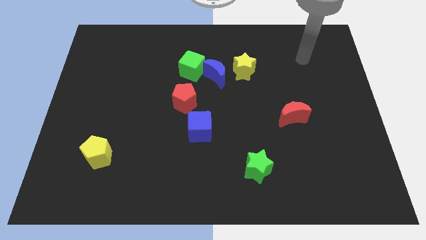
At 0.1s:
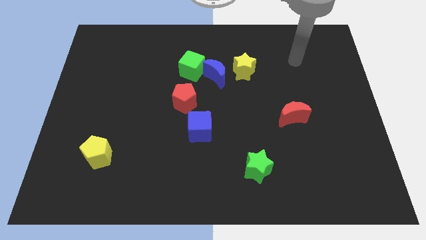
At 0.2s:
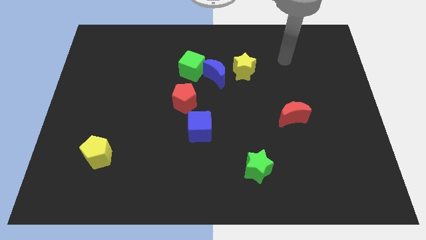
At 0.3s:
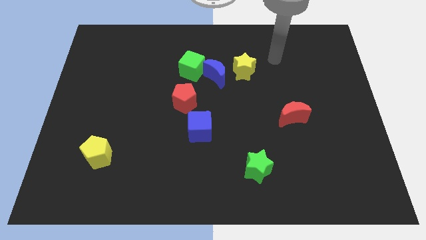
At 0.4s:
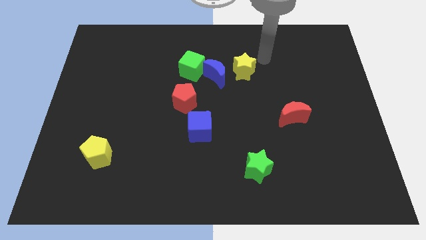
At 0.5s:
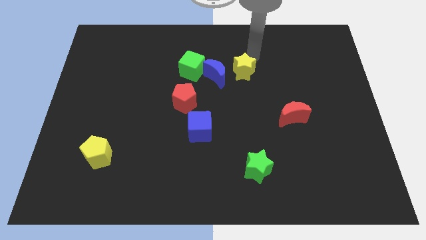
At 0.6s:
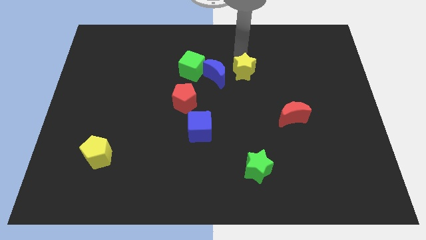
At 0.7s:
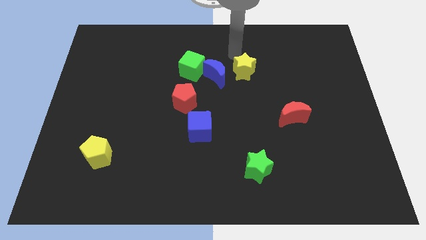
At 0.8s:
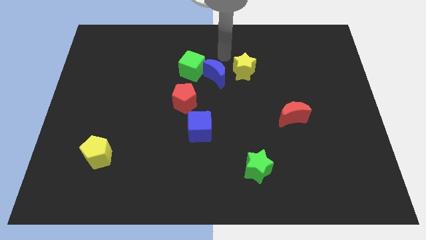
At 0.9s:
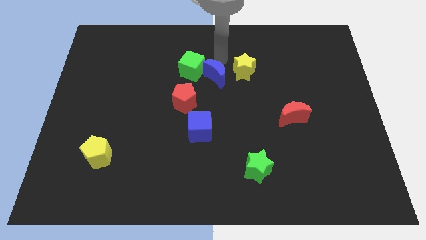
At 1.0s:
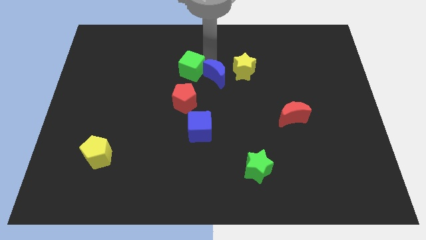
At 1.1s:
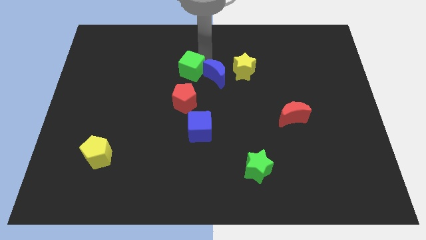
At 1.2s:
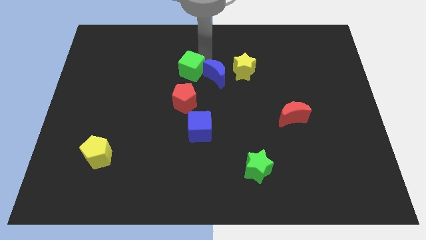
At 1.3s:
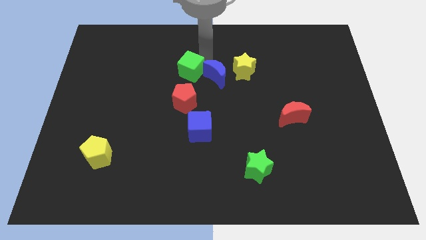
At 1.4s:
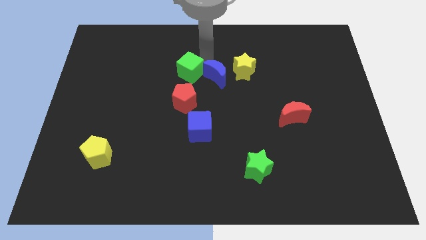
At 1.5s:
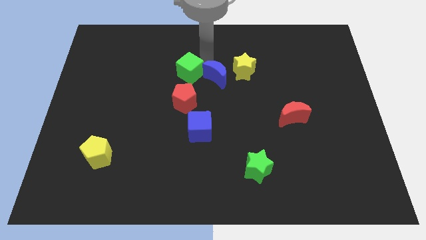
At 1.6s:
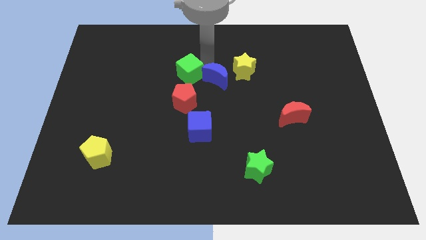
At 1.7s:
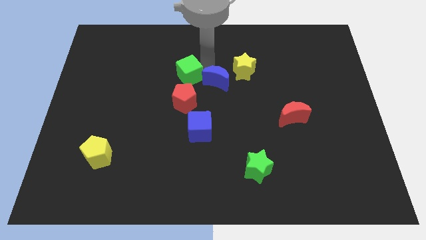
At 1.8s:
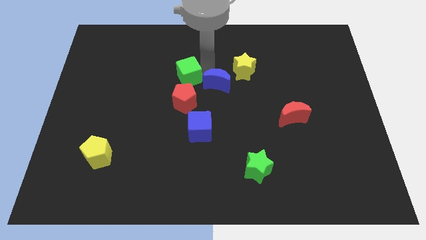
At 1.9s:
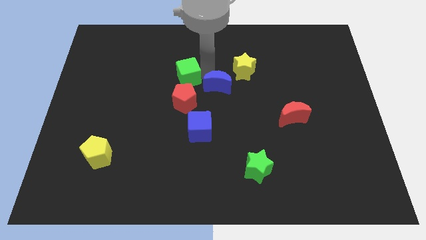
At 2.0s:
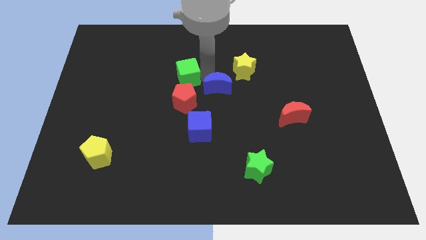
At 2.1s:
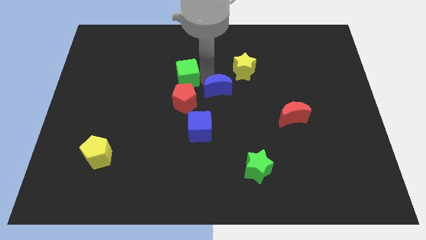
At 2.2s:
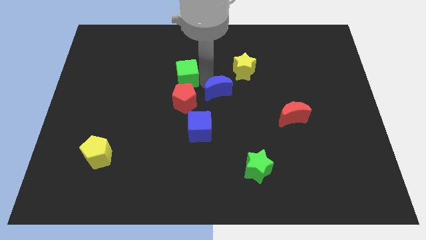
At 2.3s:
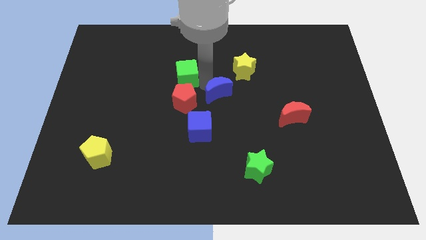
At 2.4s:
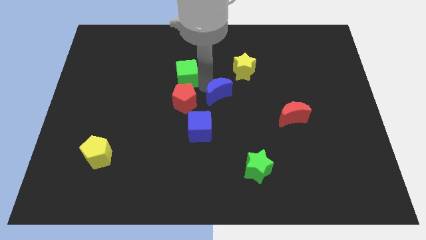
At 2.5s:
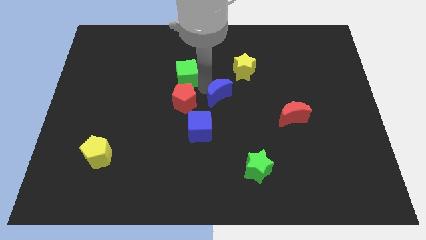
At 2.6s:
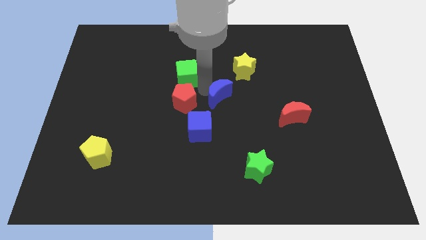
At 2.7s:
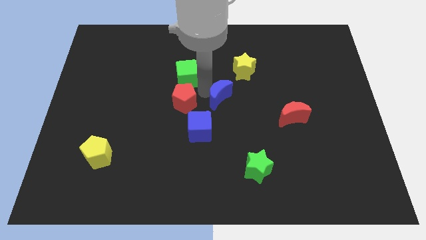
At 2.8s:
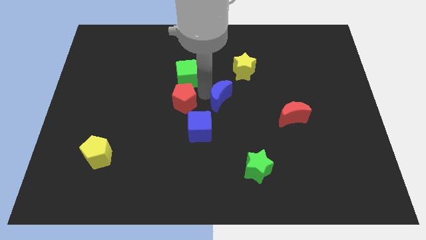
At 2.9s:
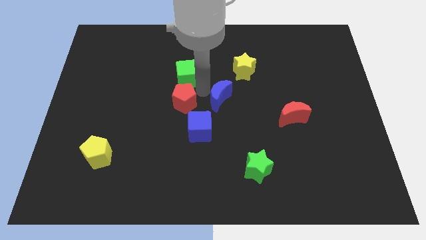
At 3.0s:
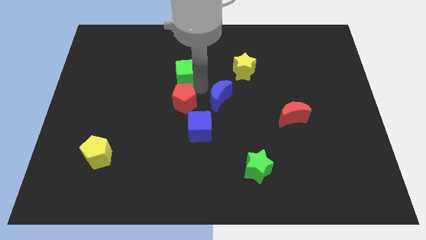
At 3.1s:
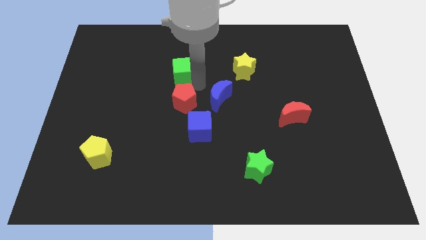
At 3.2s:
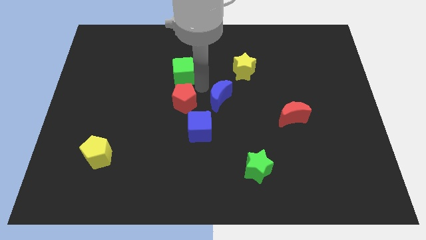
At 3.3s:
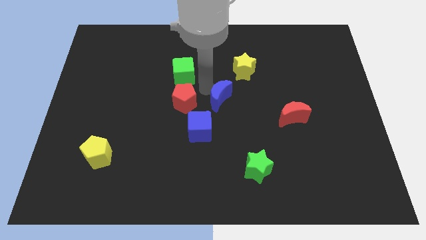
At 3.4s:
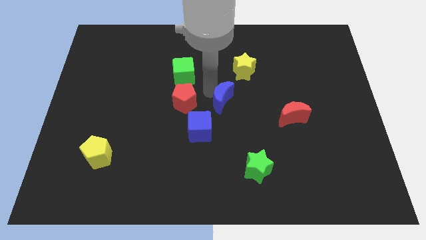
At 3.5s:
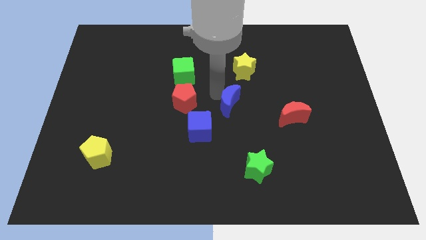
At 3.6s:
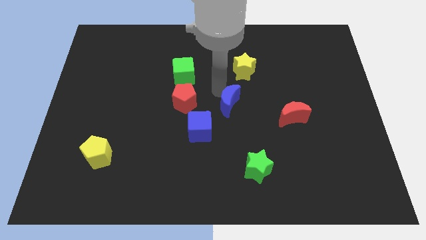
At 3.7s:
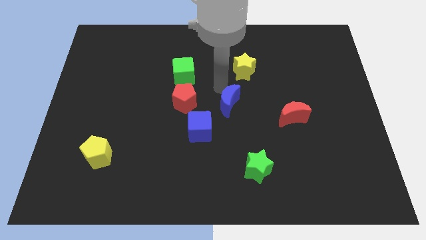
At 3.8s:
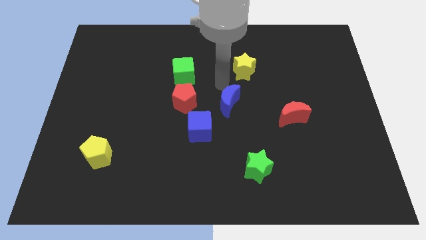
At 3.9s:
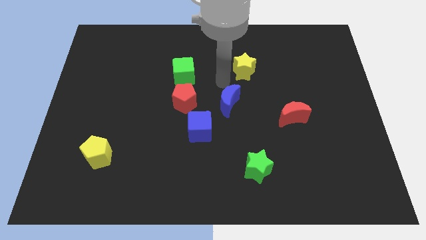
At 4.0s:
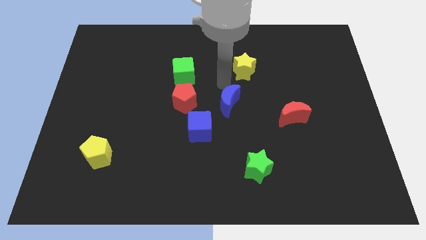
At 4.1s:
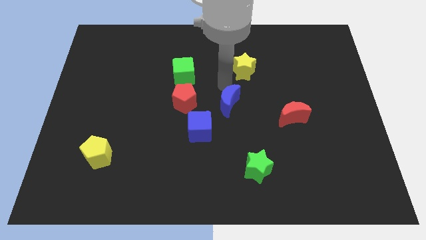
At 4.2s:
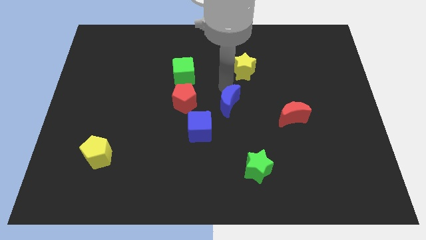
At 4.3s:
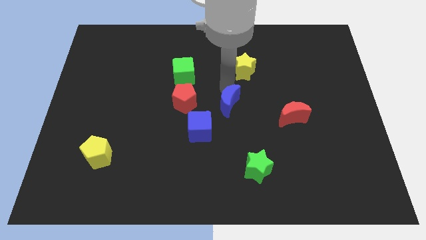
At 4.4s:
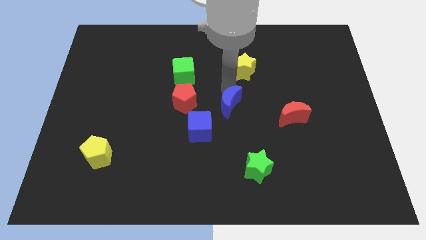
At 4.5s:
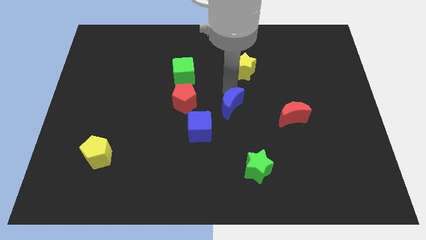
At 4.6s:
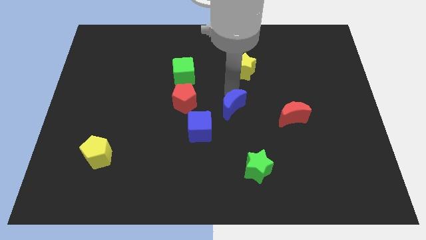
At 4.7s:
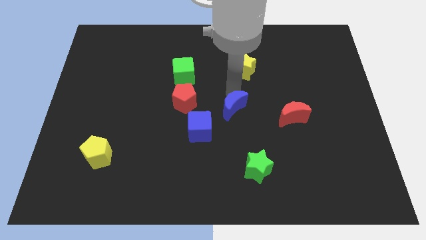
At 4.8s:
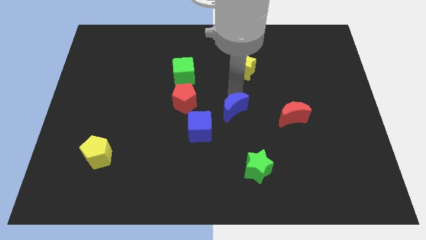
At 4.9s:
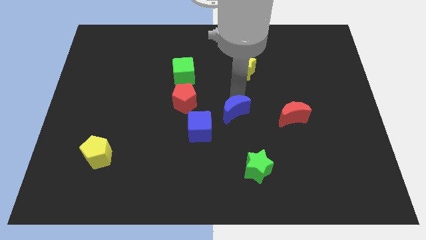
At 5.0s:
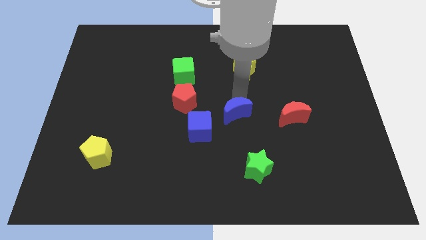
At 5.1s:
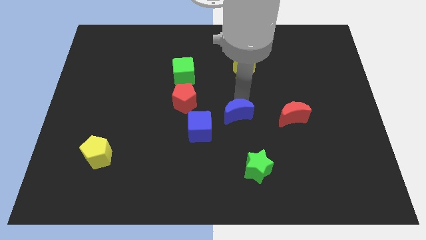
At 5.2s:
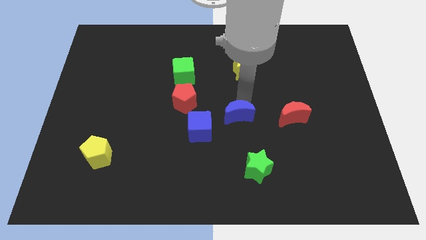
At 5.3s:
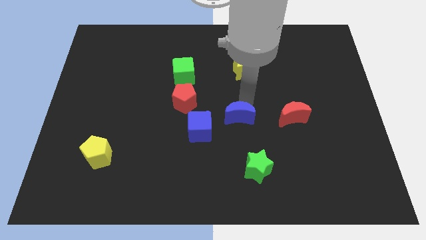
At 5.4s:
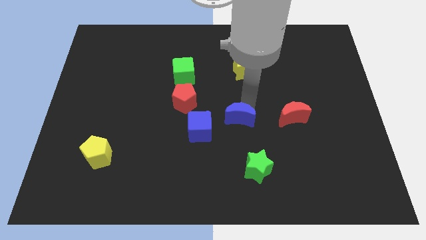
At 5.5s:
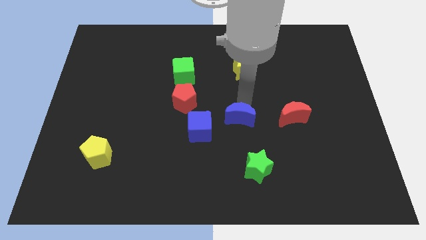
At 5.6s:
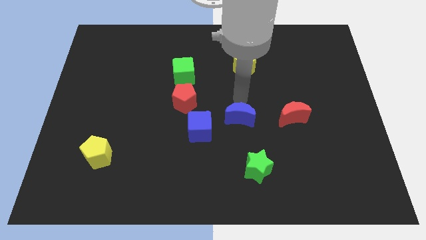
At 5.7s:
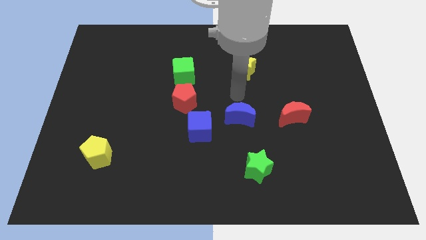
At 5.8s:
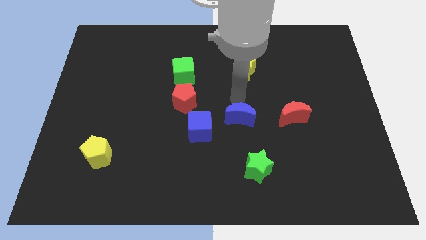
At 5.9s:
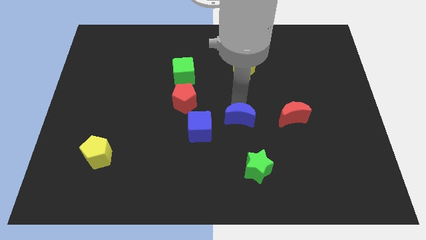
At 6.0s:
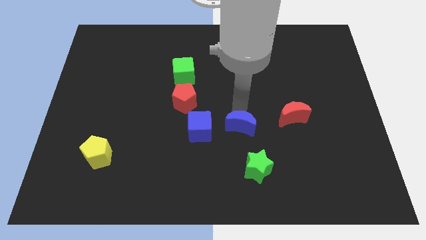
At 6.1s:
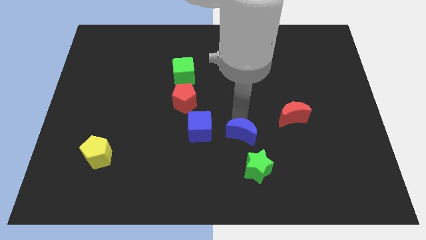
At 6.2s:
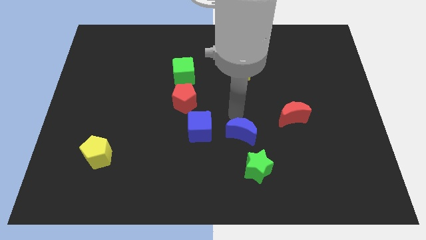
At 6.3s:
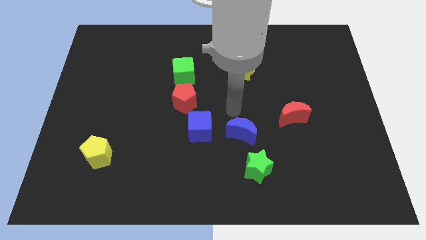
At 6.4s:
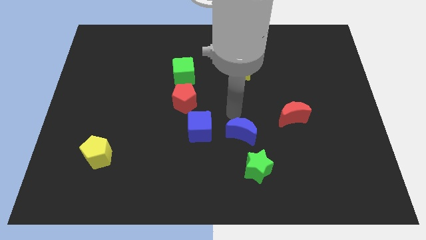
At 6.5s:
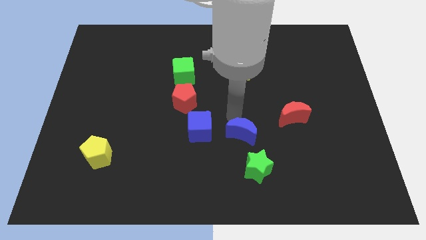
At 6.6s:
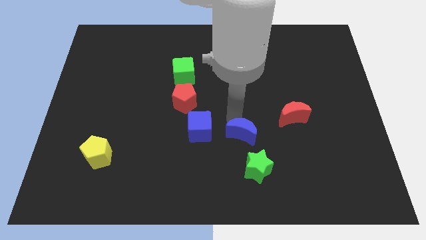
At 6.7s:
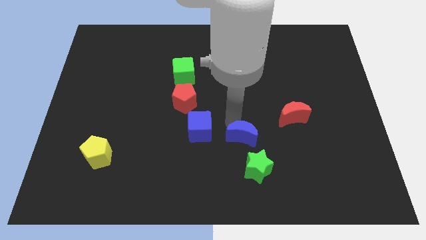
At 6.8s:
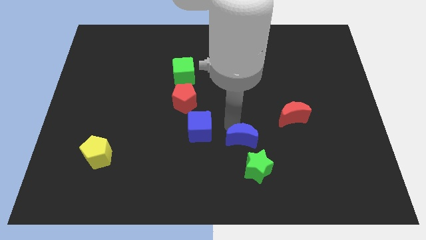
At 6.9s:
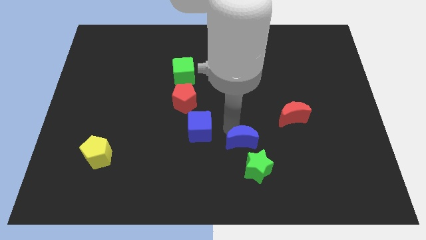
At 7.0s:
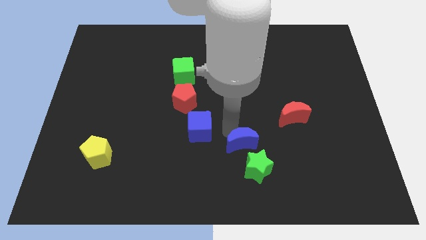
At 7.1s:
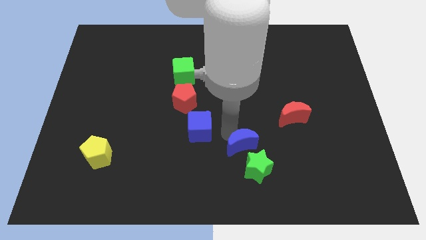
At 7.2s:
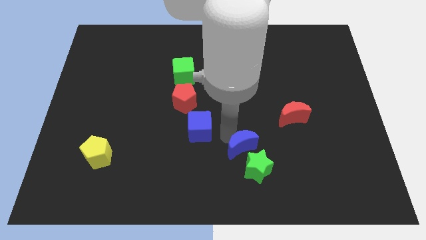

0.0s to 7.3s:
slide the blue moon close to the green star
